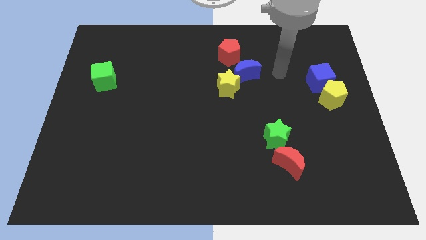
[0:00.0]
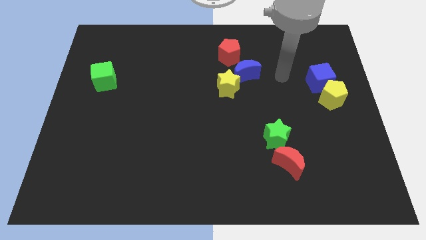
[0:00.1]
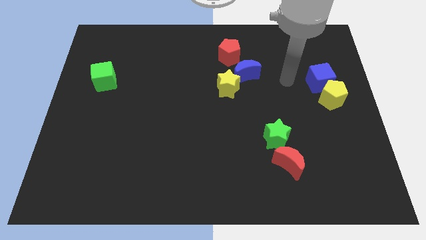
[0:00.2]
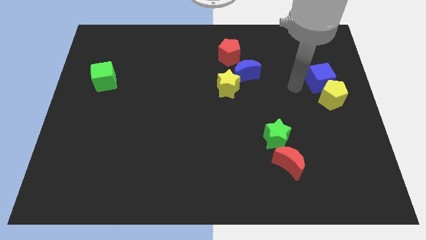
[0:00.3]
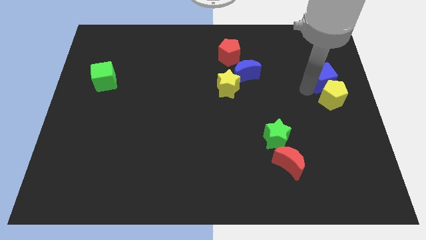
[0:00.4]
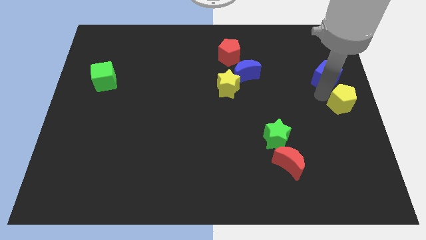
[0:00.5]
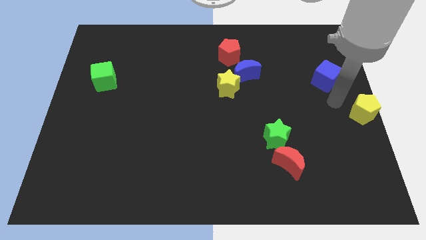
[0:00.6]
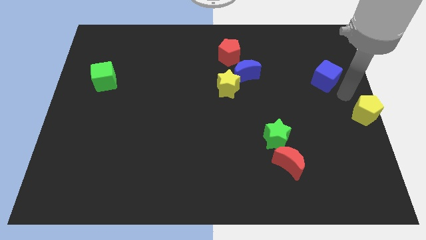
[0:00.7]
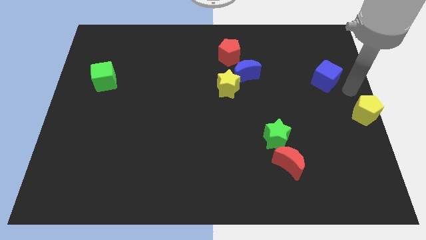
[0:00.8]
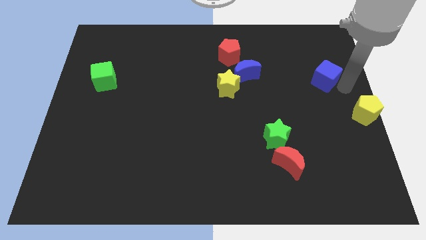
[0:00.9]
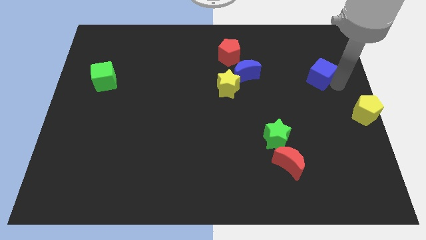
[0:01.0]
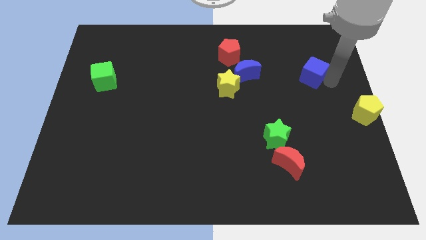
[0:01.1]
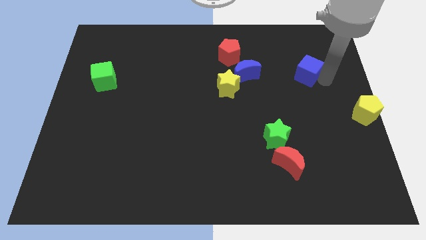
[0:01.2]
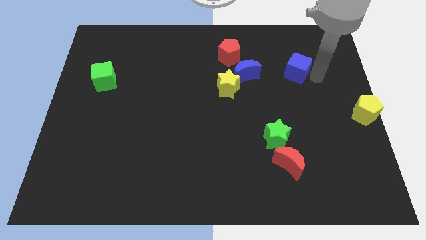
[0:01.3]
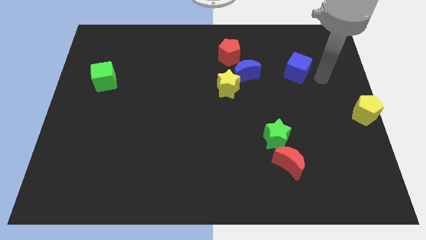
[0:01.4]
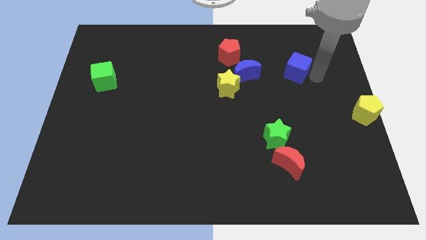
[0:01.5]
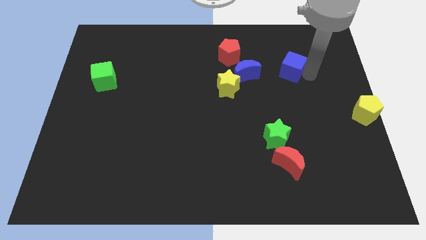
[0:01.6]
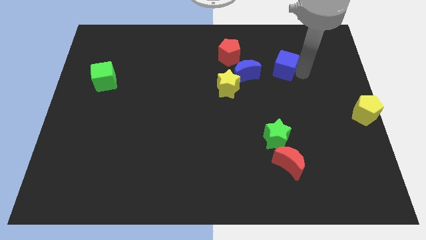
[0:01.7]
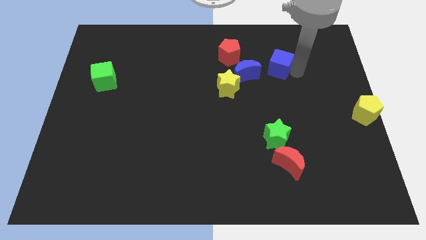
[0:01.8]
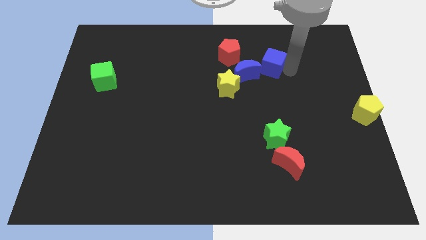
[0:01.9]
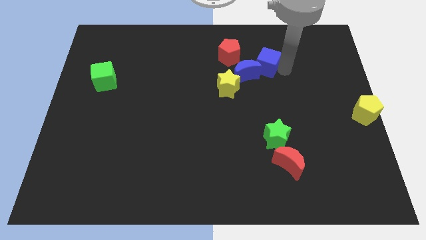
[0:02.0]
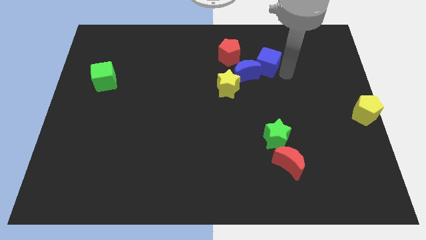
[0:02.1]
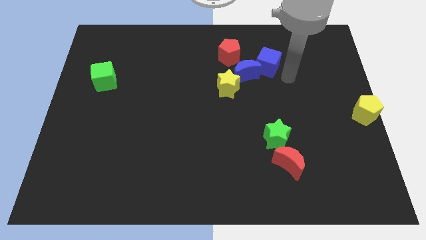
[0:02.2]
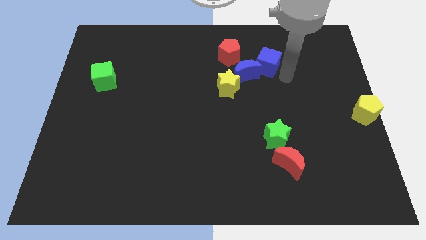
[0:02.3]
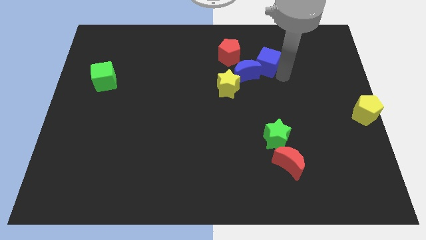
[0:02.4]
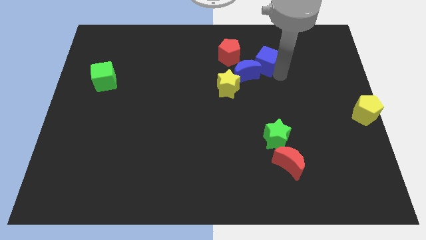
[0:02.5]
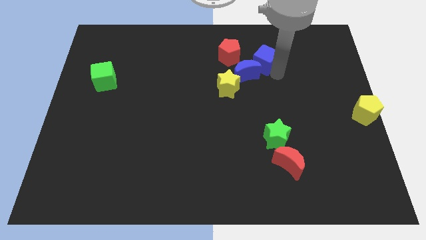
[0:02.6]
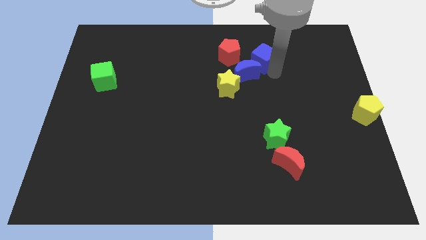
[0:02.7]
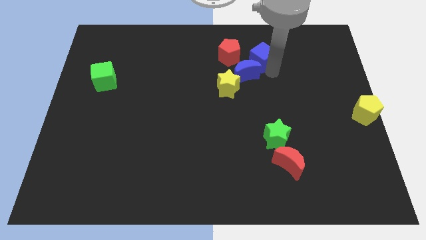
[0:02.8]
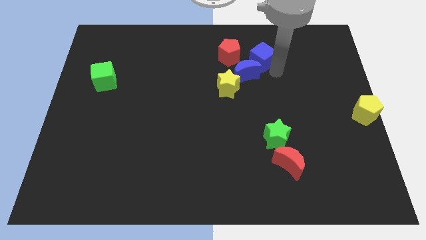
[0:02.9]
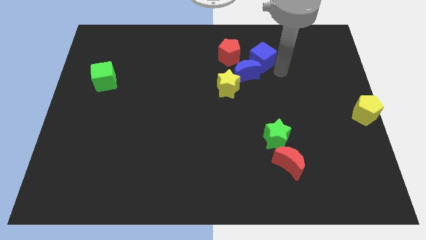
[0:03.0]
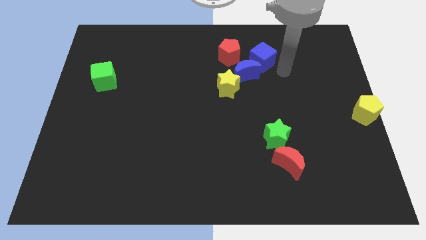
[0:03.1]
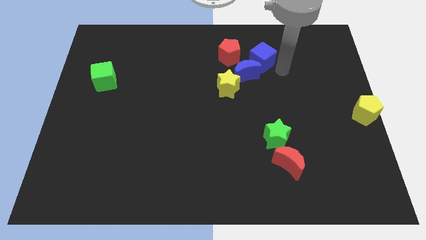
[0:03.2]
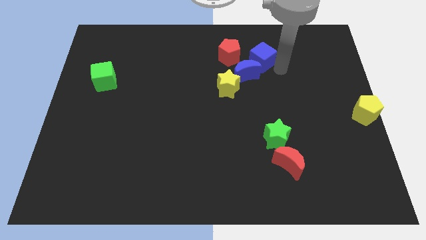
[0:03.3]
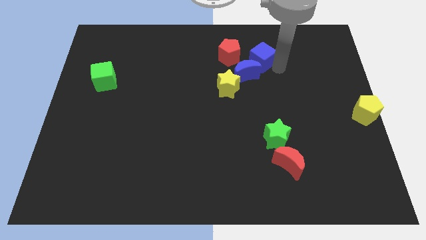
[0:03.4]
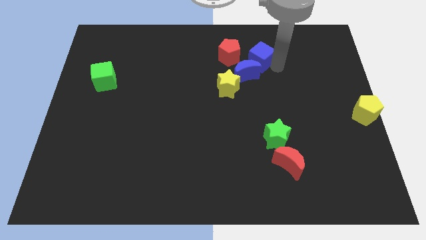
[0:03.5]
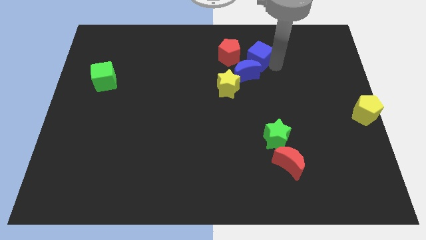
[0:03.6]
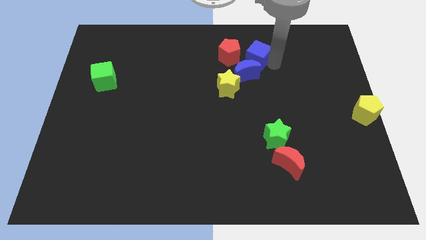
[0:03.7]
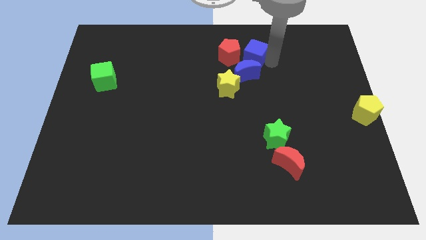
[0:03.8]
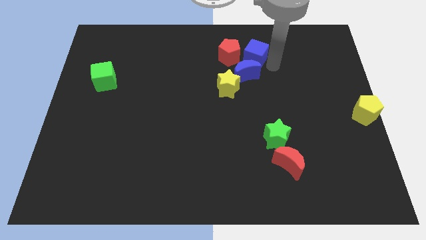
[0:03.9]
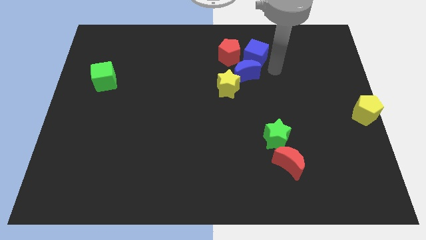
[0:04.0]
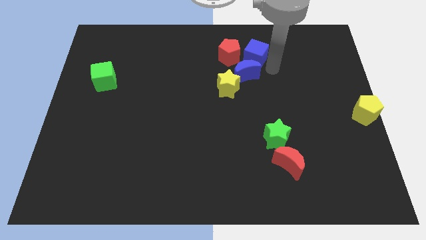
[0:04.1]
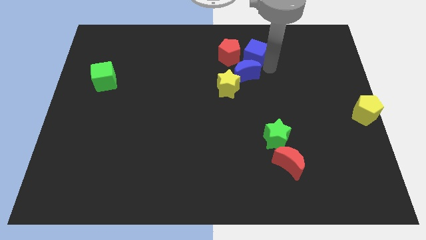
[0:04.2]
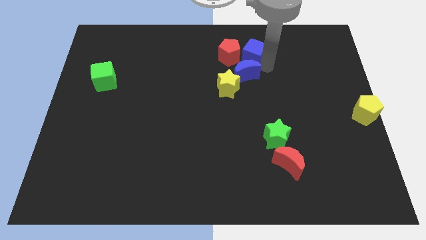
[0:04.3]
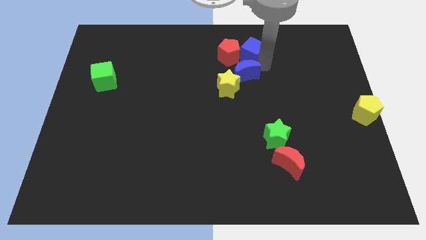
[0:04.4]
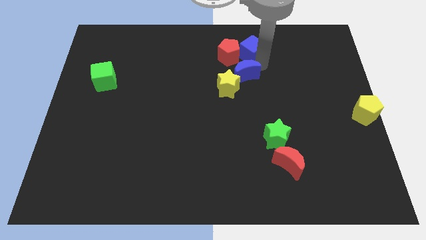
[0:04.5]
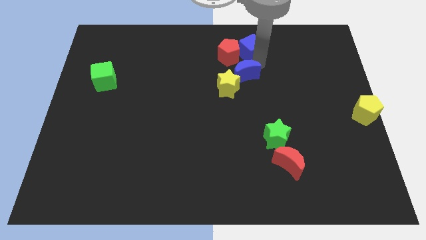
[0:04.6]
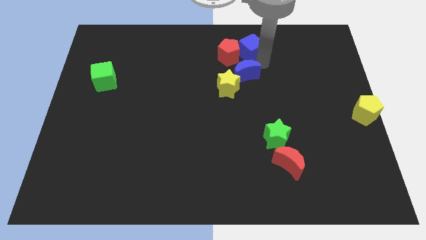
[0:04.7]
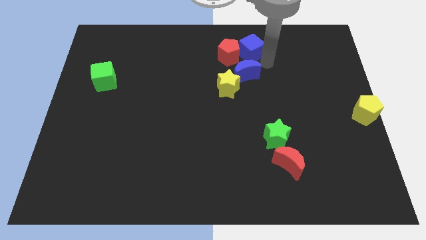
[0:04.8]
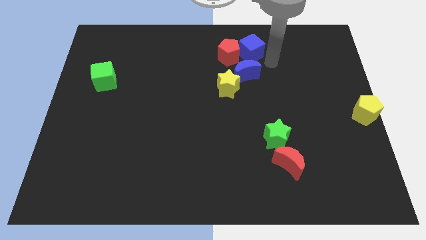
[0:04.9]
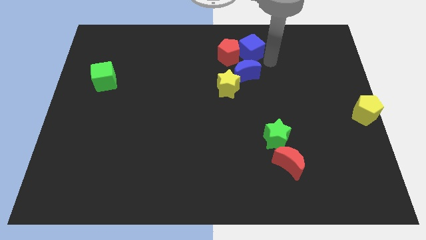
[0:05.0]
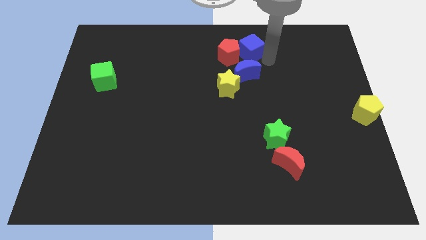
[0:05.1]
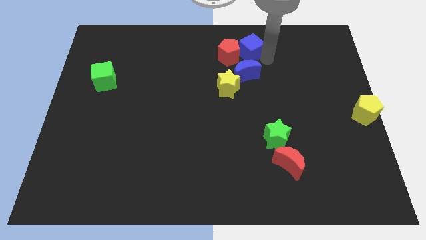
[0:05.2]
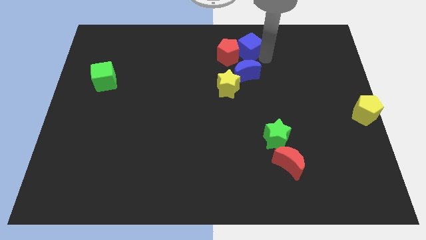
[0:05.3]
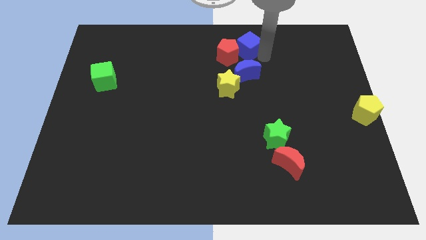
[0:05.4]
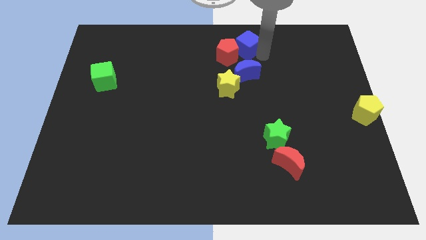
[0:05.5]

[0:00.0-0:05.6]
push the blue cube to the top side

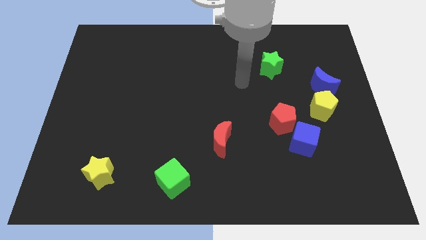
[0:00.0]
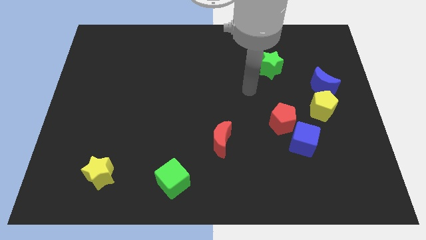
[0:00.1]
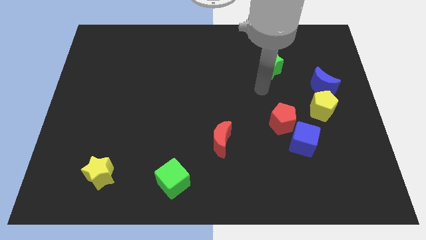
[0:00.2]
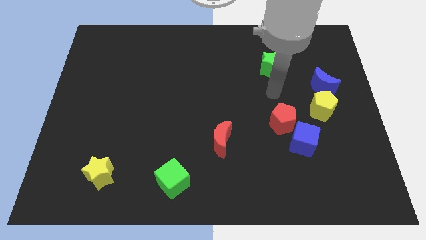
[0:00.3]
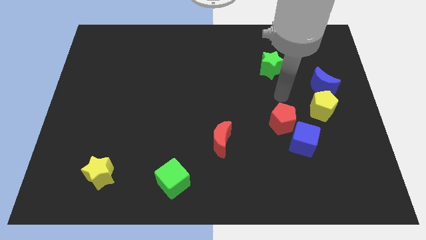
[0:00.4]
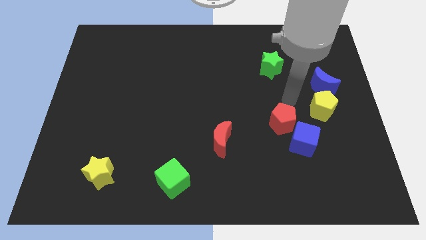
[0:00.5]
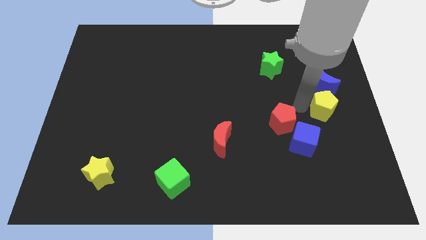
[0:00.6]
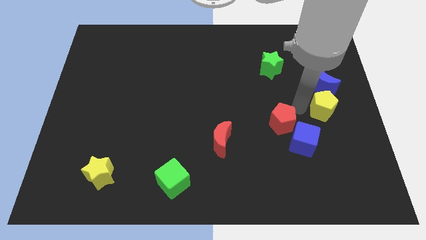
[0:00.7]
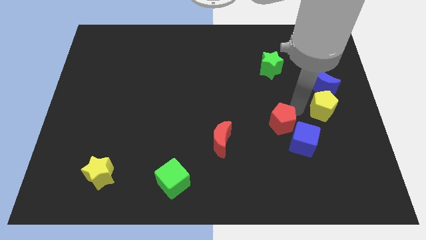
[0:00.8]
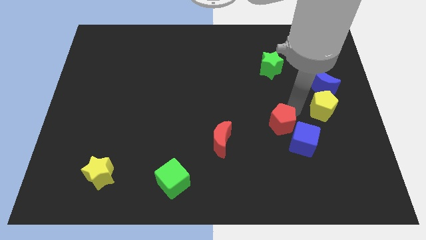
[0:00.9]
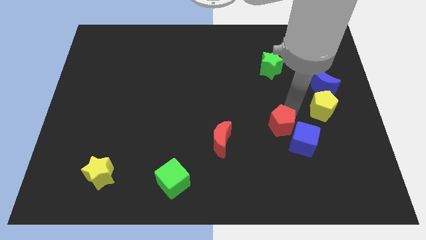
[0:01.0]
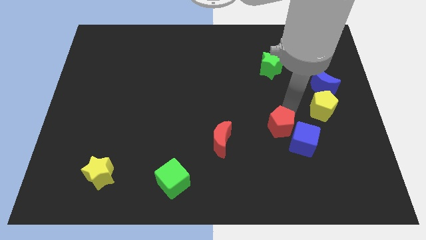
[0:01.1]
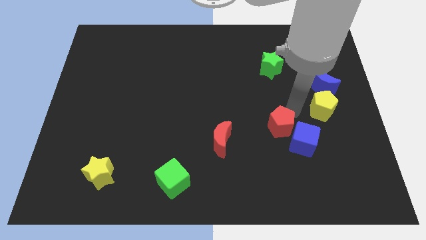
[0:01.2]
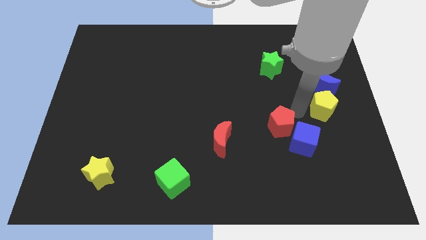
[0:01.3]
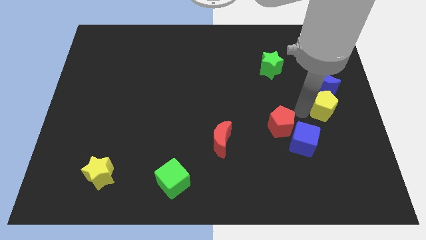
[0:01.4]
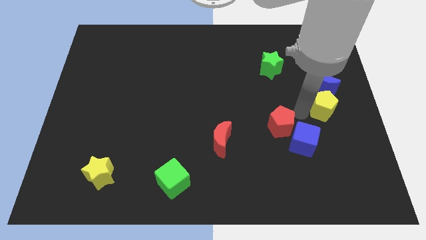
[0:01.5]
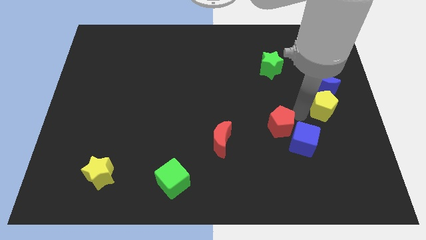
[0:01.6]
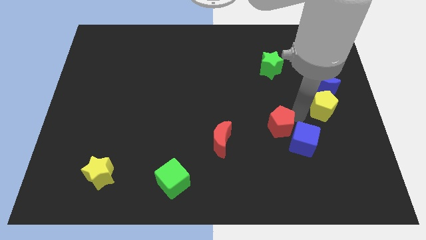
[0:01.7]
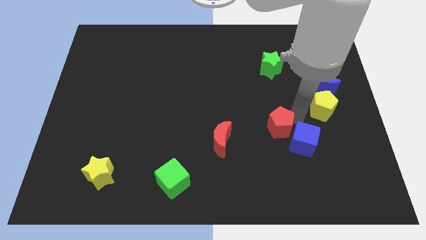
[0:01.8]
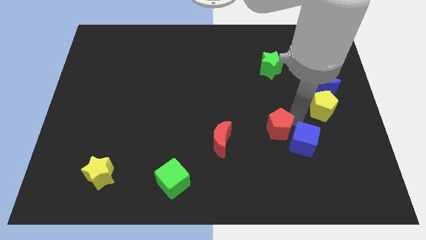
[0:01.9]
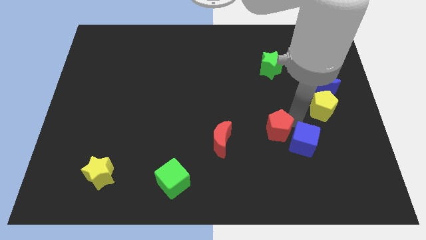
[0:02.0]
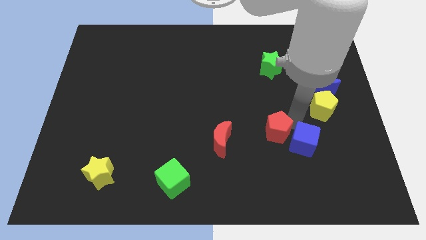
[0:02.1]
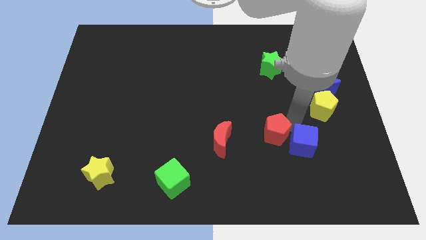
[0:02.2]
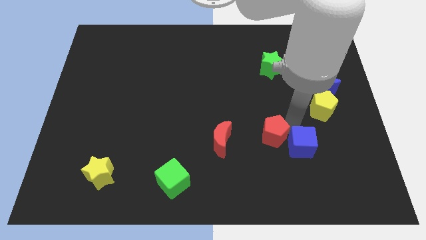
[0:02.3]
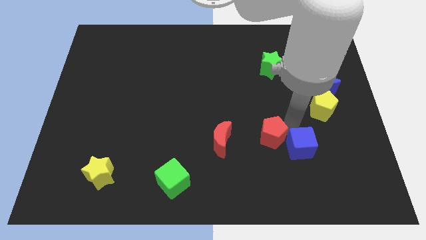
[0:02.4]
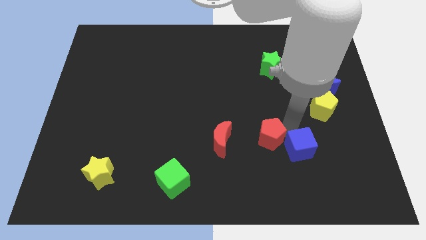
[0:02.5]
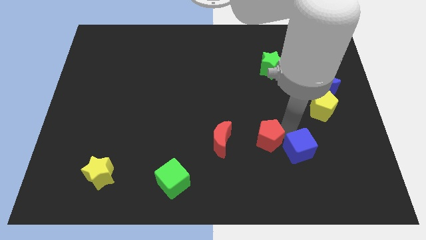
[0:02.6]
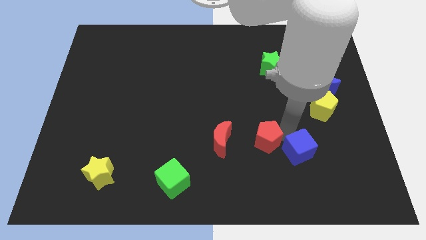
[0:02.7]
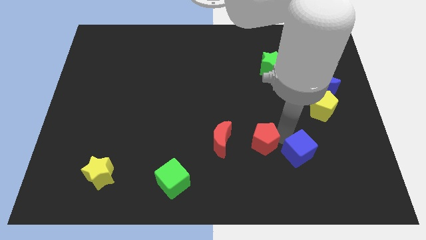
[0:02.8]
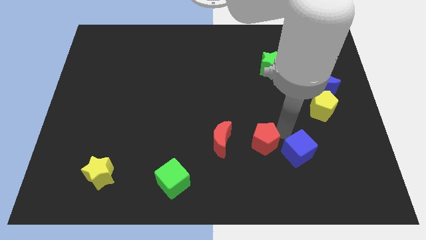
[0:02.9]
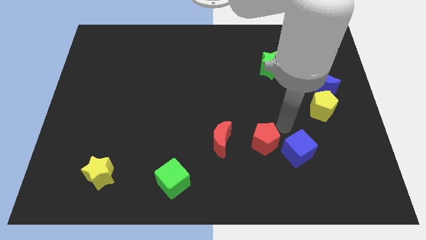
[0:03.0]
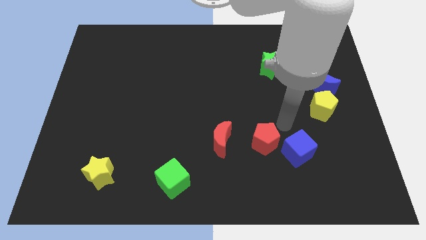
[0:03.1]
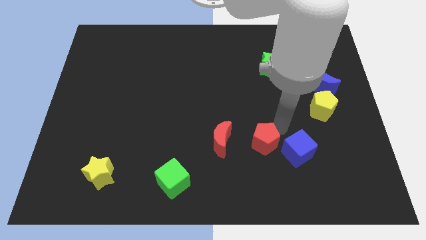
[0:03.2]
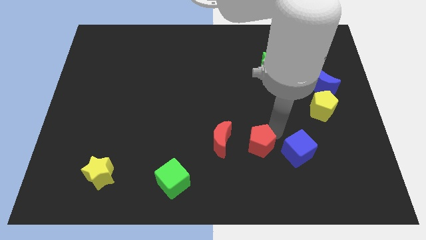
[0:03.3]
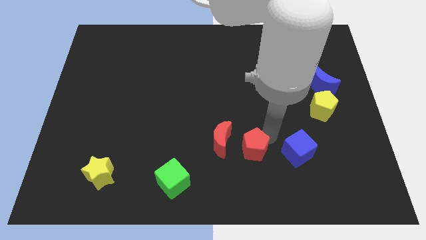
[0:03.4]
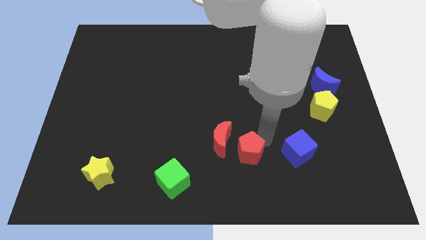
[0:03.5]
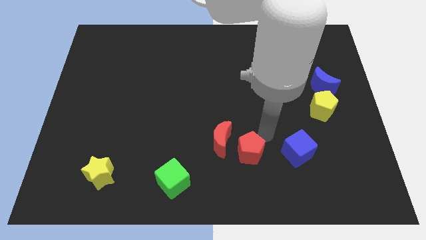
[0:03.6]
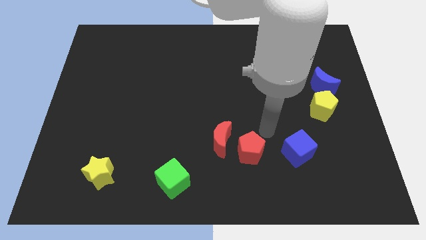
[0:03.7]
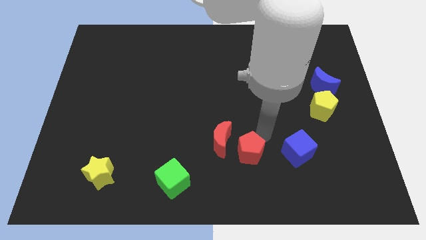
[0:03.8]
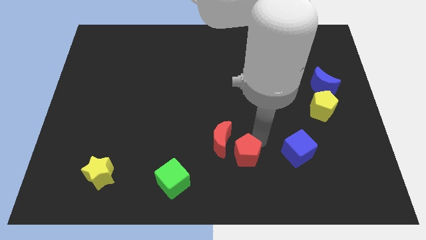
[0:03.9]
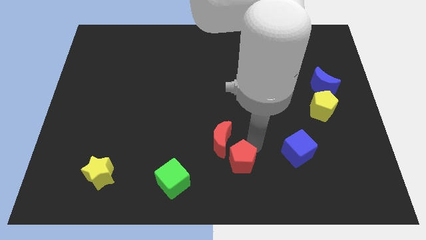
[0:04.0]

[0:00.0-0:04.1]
slide the red pentagon to the bottom
